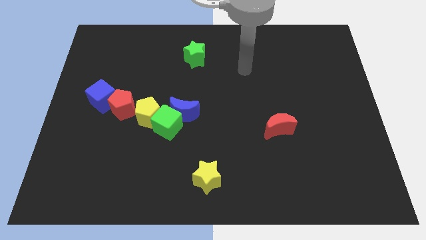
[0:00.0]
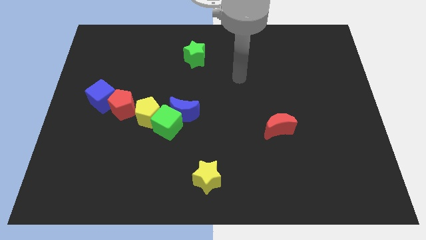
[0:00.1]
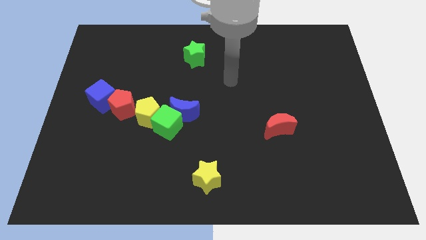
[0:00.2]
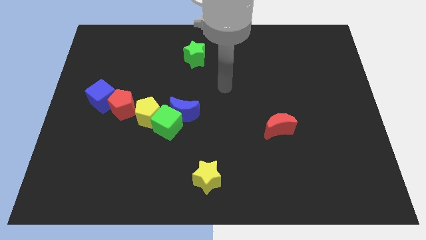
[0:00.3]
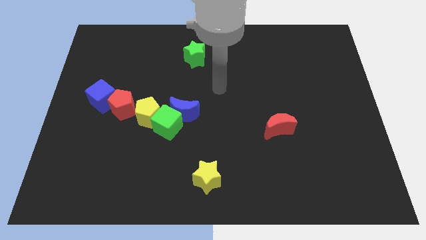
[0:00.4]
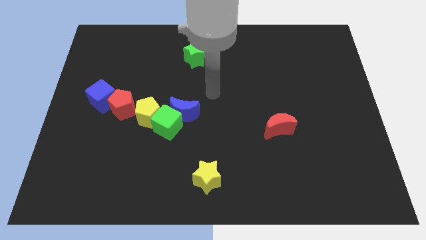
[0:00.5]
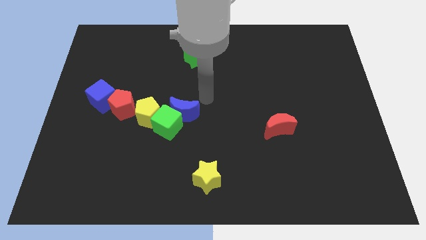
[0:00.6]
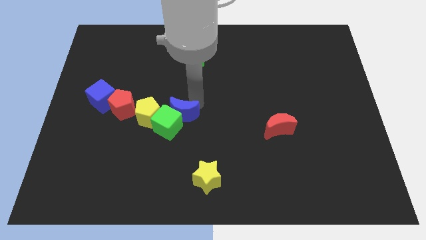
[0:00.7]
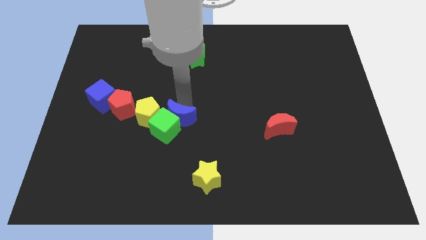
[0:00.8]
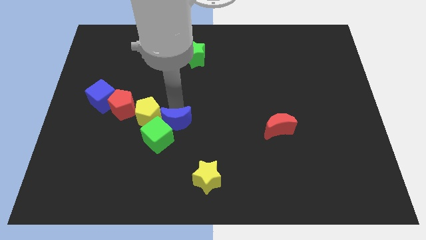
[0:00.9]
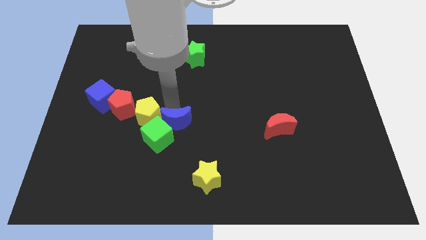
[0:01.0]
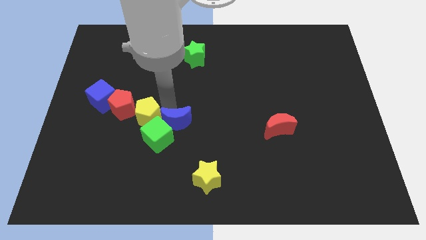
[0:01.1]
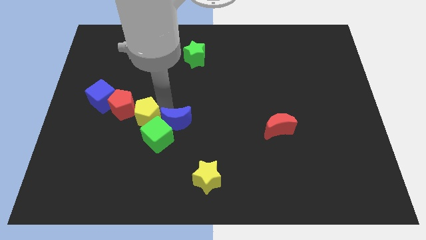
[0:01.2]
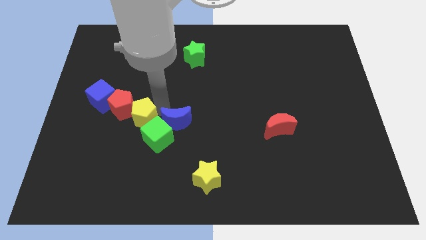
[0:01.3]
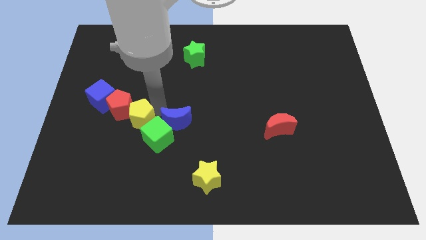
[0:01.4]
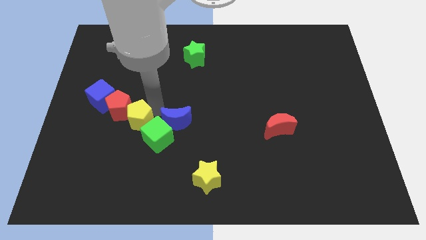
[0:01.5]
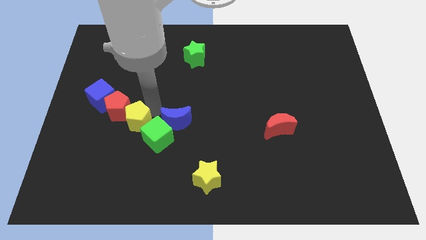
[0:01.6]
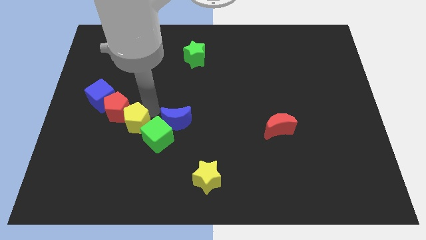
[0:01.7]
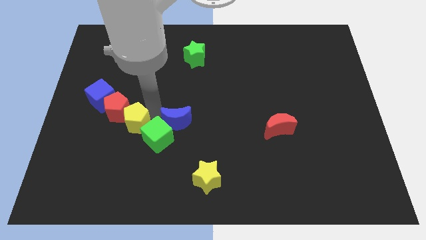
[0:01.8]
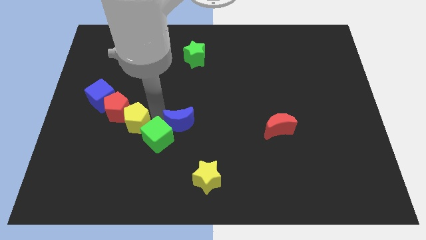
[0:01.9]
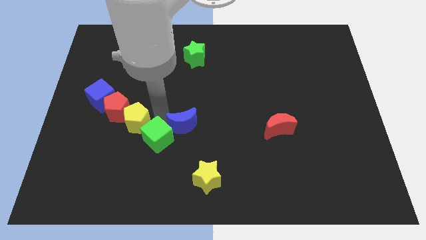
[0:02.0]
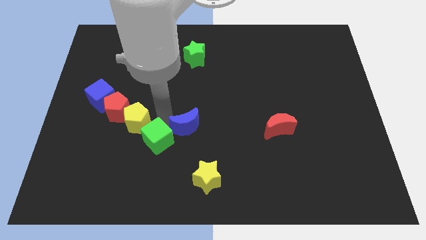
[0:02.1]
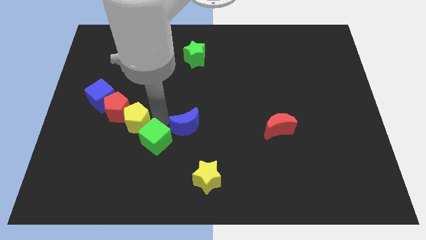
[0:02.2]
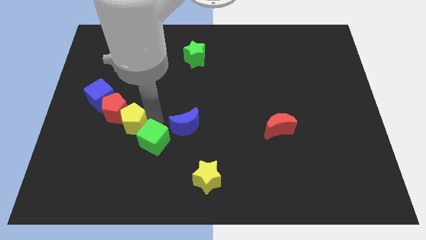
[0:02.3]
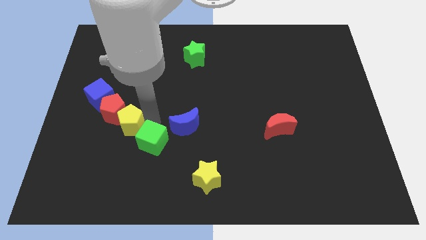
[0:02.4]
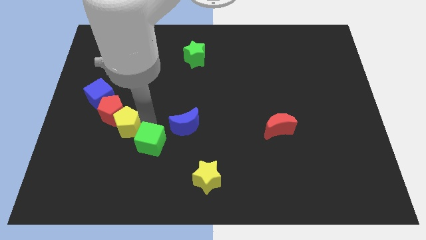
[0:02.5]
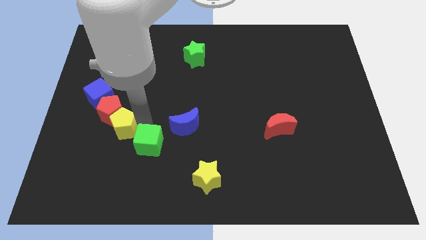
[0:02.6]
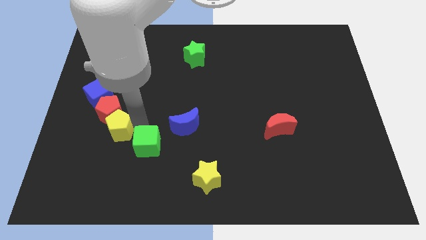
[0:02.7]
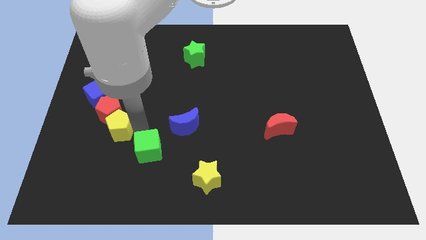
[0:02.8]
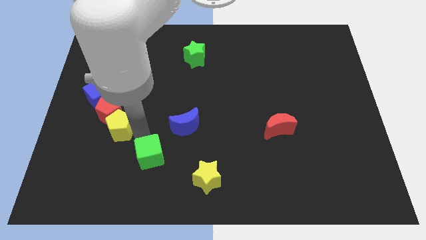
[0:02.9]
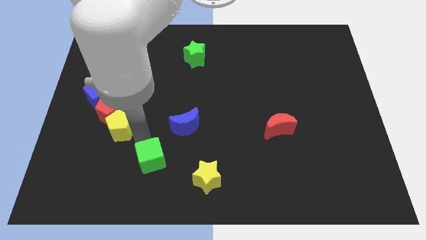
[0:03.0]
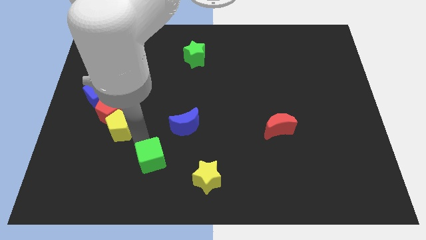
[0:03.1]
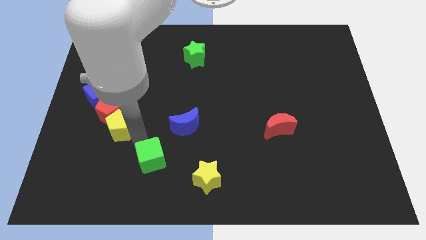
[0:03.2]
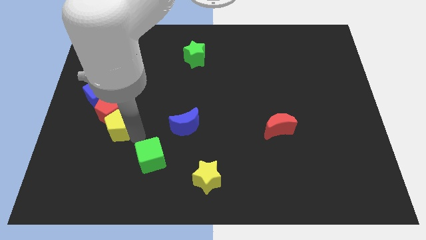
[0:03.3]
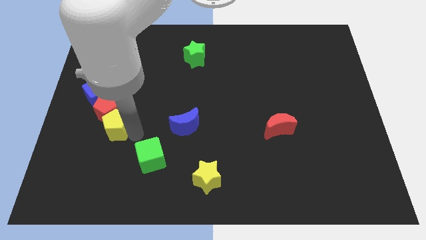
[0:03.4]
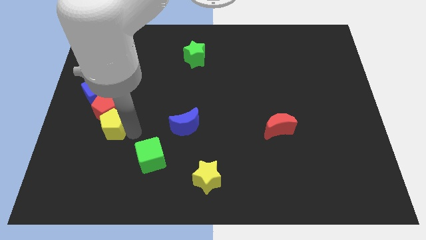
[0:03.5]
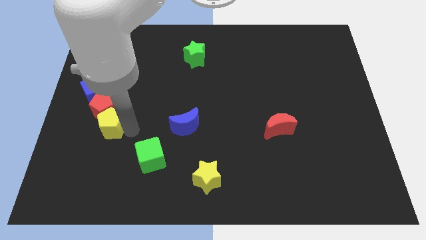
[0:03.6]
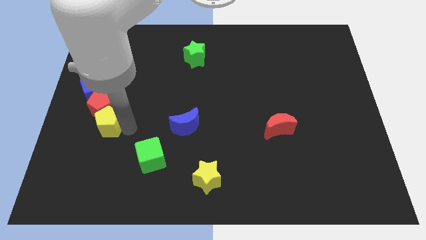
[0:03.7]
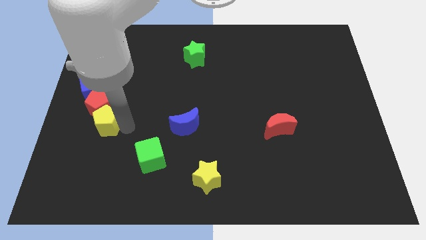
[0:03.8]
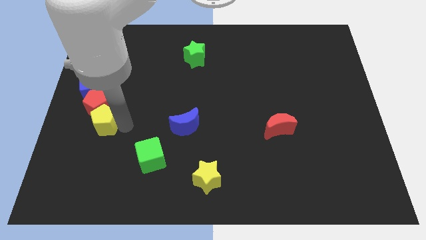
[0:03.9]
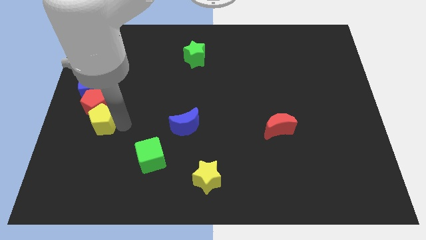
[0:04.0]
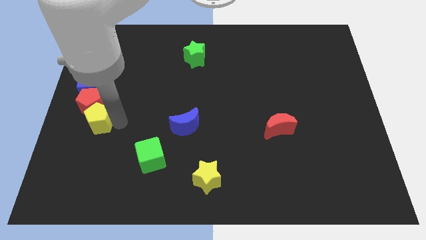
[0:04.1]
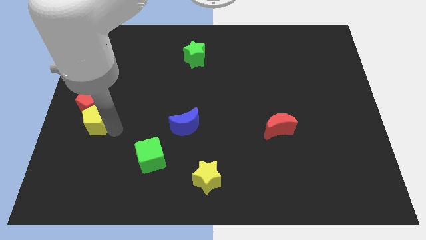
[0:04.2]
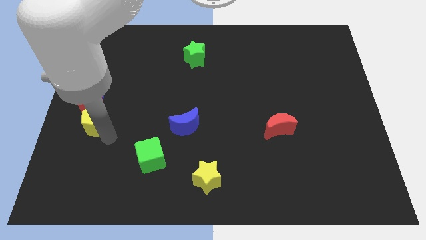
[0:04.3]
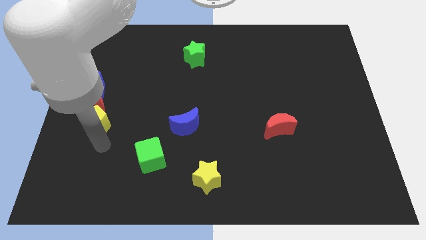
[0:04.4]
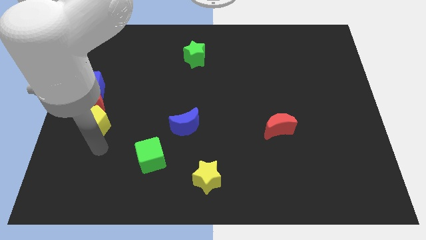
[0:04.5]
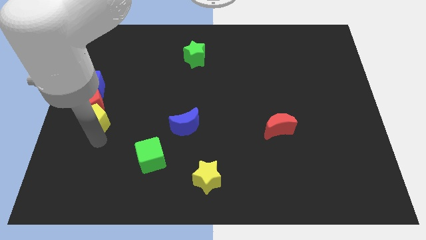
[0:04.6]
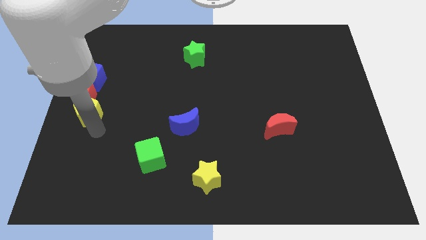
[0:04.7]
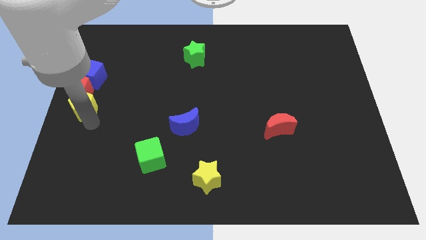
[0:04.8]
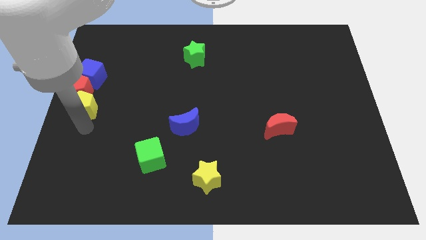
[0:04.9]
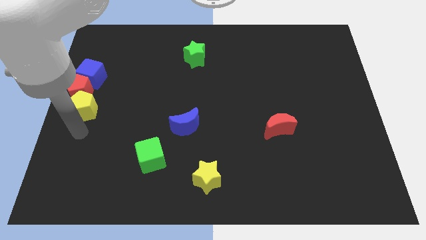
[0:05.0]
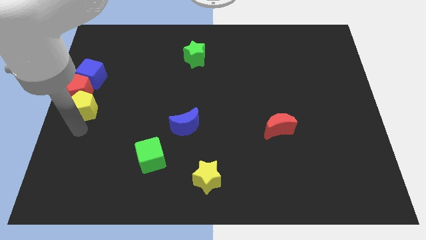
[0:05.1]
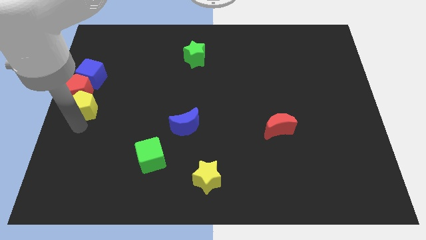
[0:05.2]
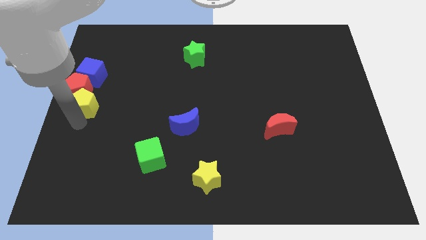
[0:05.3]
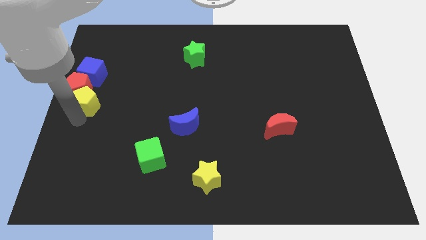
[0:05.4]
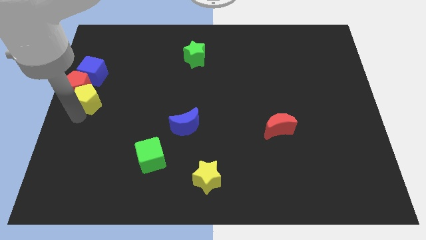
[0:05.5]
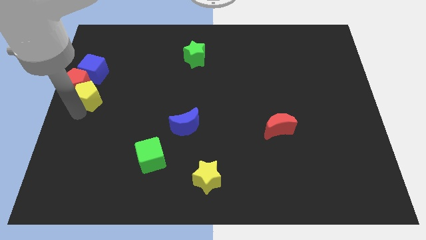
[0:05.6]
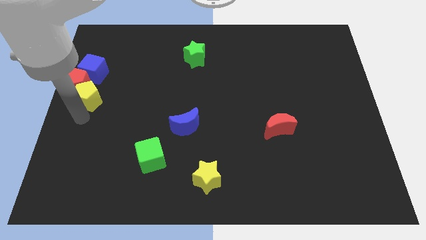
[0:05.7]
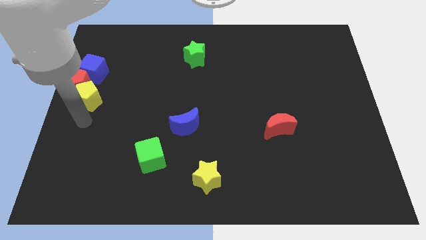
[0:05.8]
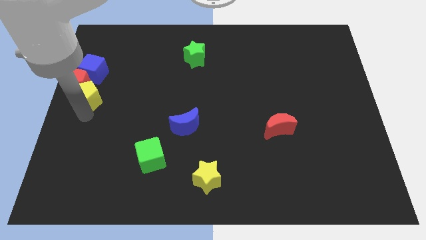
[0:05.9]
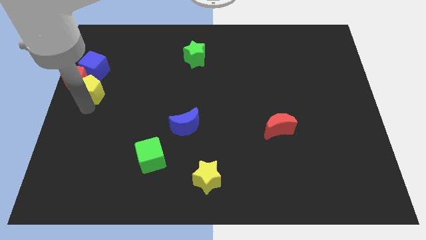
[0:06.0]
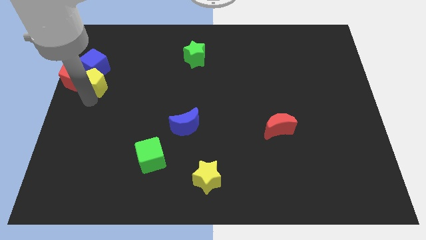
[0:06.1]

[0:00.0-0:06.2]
put the yellow pentagon close to the blue cube
